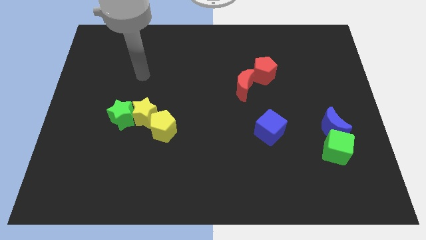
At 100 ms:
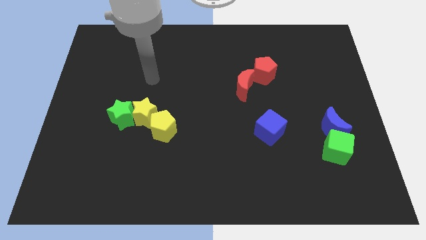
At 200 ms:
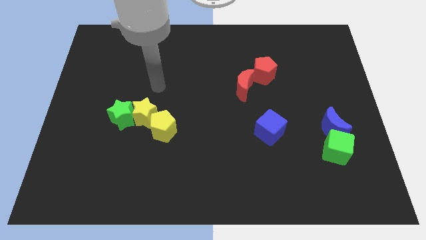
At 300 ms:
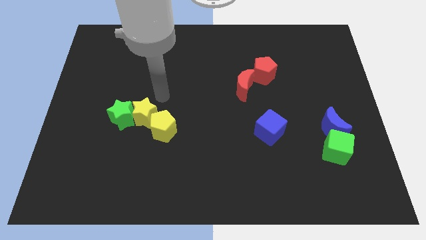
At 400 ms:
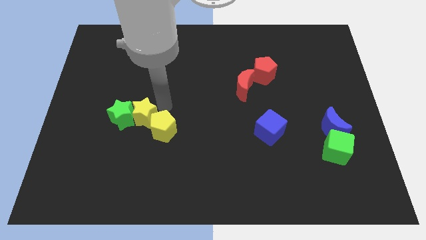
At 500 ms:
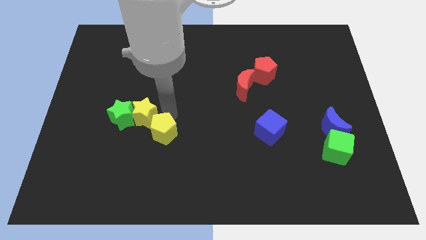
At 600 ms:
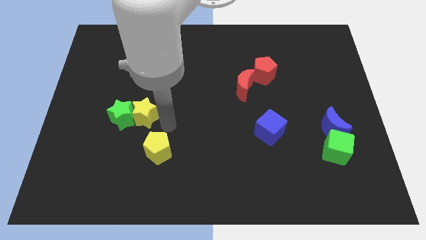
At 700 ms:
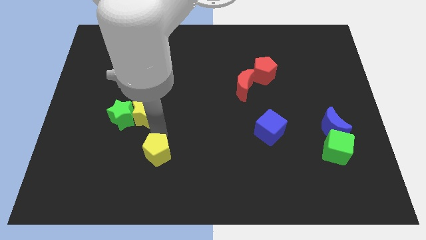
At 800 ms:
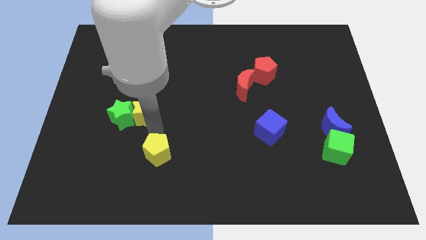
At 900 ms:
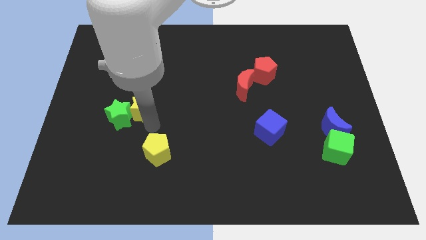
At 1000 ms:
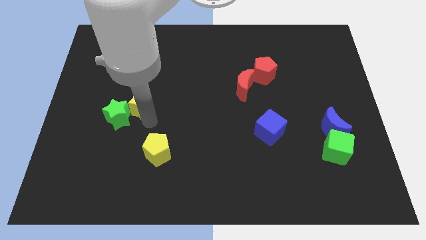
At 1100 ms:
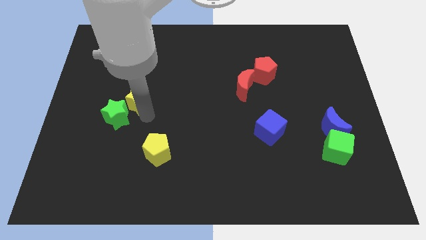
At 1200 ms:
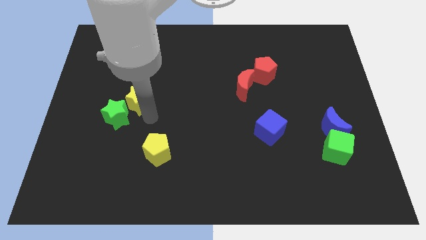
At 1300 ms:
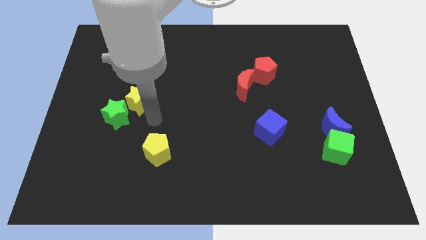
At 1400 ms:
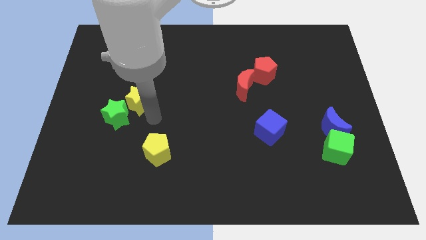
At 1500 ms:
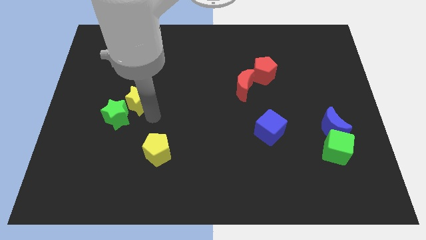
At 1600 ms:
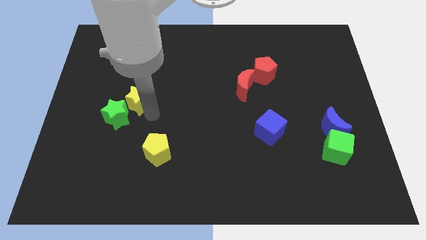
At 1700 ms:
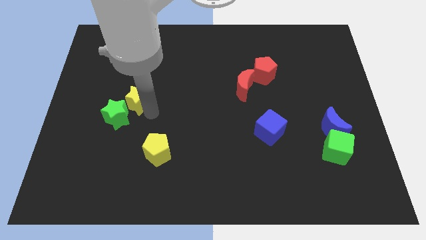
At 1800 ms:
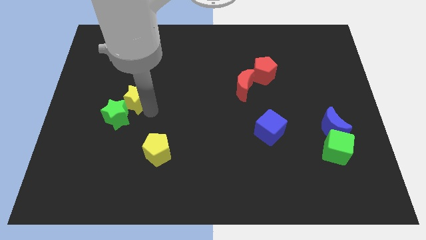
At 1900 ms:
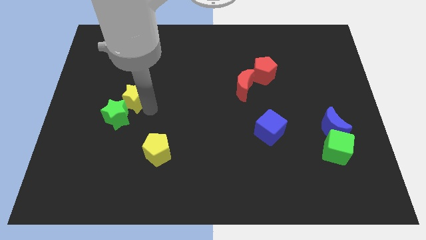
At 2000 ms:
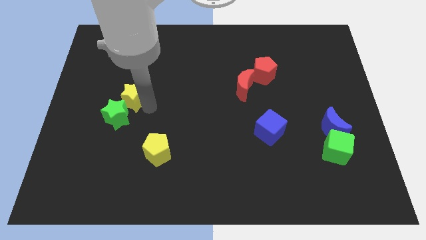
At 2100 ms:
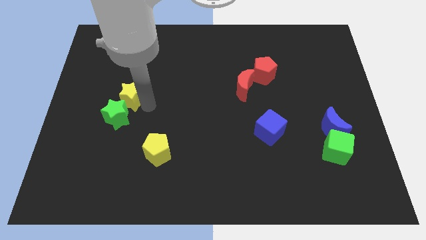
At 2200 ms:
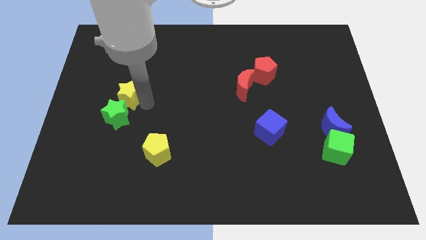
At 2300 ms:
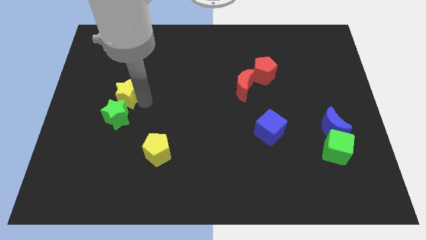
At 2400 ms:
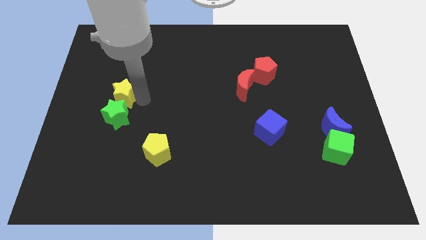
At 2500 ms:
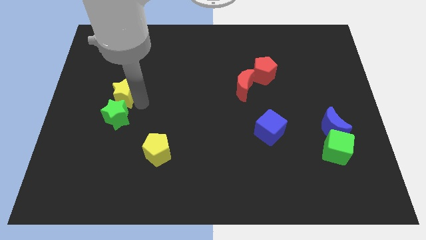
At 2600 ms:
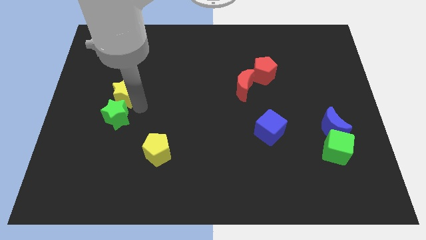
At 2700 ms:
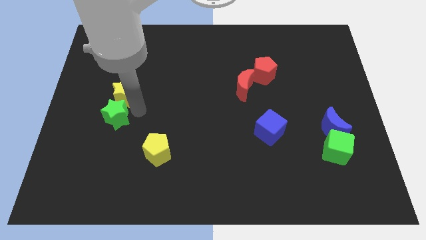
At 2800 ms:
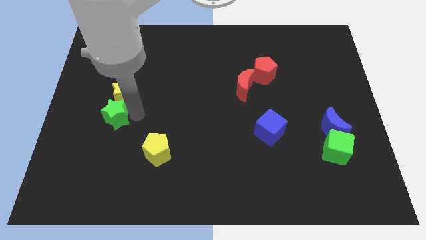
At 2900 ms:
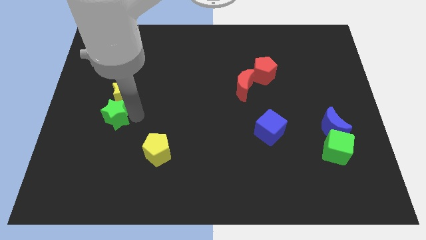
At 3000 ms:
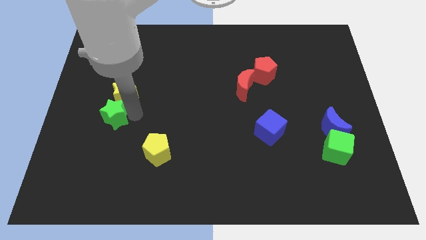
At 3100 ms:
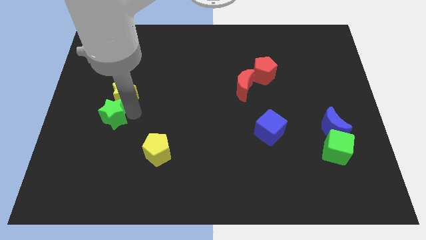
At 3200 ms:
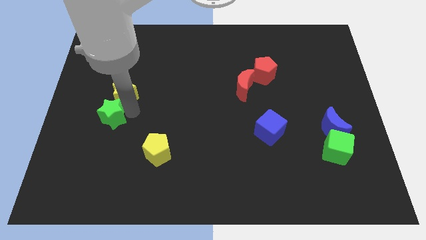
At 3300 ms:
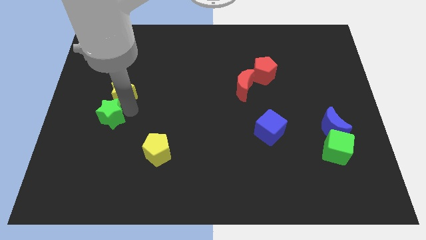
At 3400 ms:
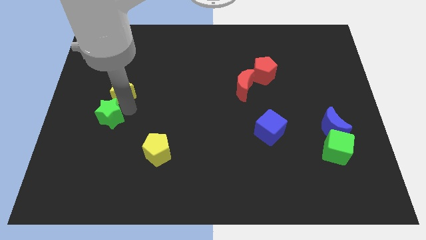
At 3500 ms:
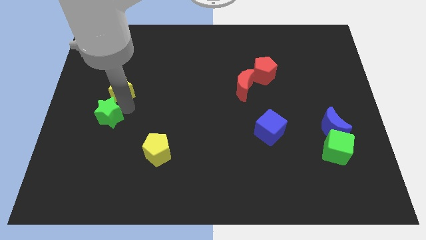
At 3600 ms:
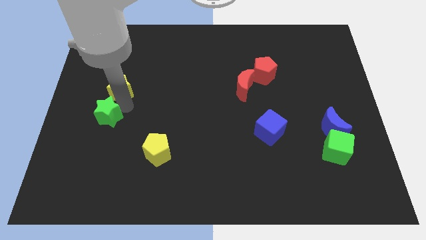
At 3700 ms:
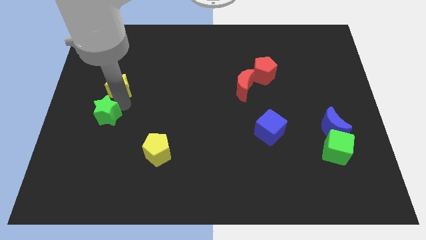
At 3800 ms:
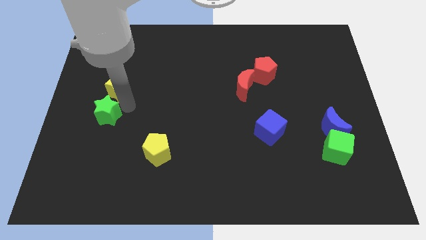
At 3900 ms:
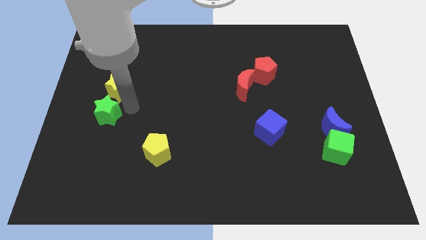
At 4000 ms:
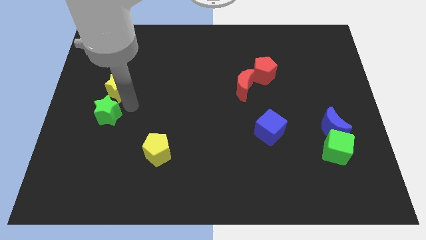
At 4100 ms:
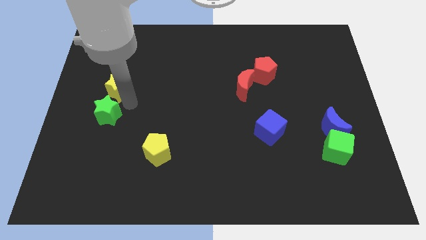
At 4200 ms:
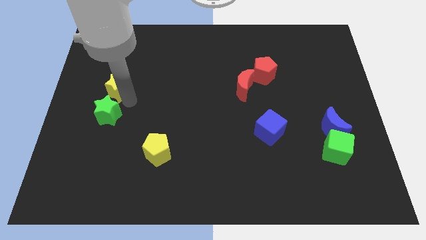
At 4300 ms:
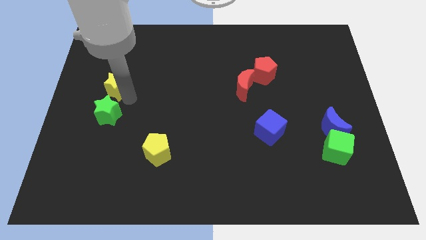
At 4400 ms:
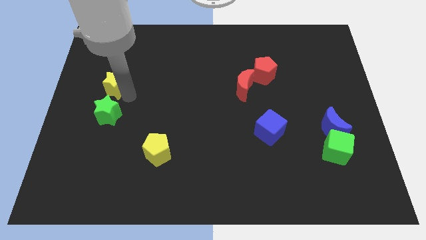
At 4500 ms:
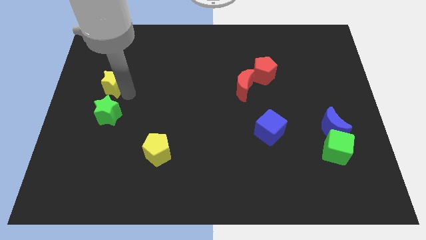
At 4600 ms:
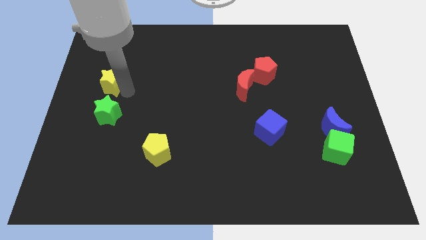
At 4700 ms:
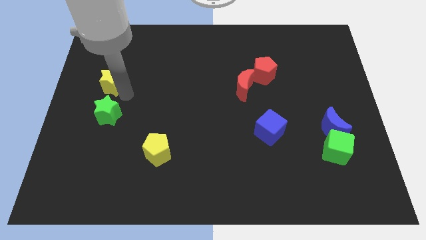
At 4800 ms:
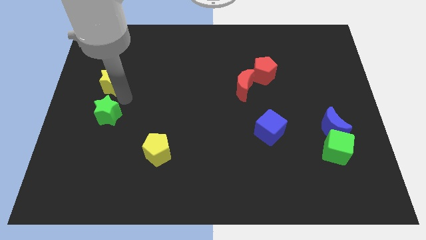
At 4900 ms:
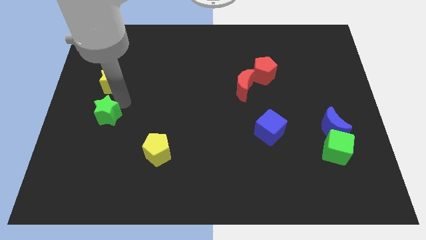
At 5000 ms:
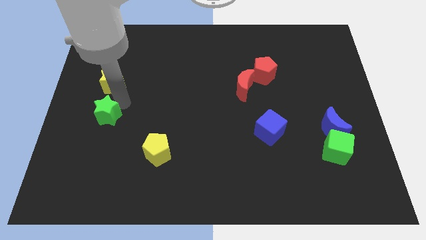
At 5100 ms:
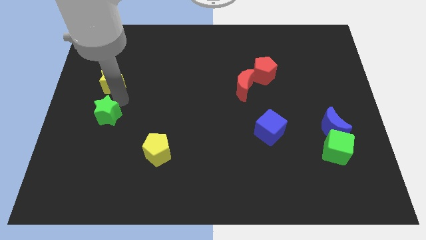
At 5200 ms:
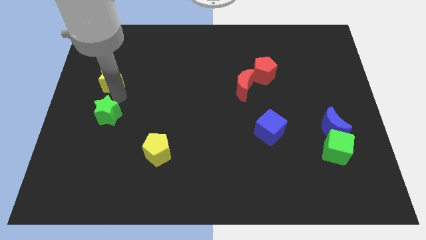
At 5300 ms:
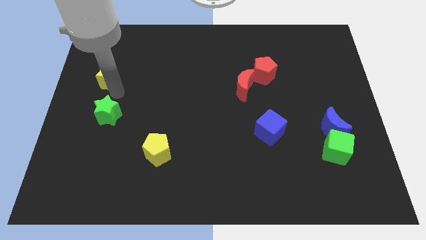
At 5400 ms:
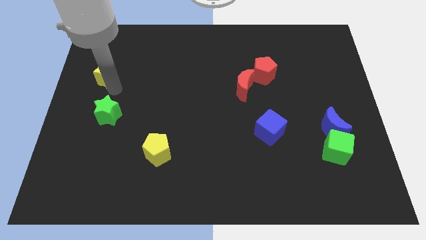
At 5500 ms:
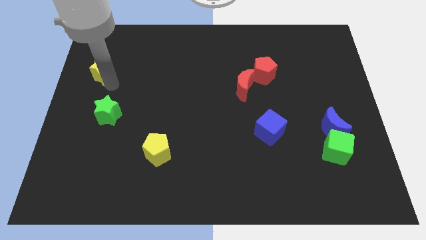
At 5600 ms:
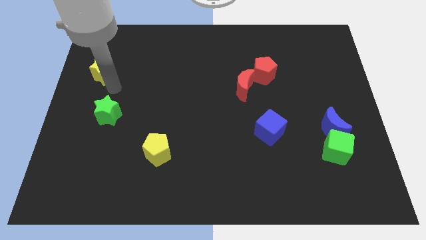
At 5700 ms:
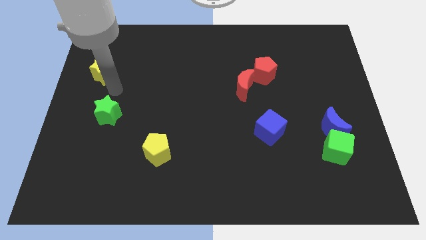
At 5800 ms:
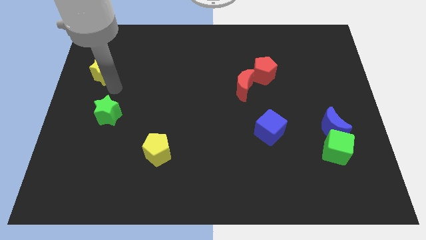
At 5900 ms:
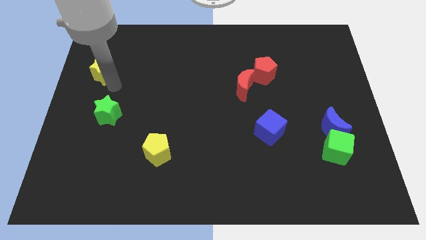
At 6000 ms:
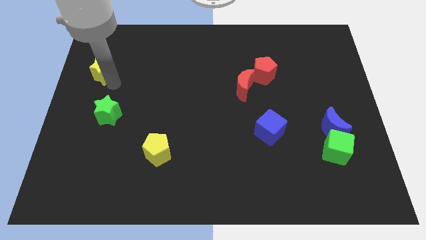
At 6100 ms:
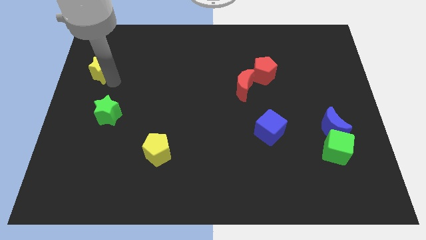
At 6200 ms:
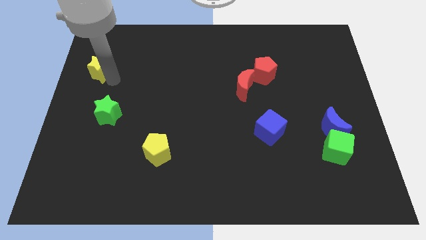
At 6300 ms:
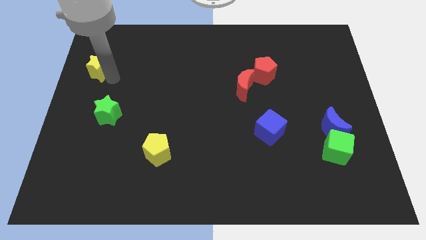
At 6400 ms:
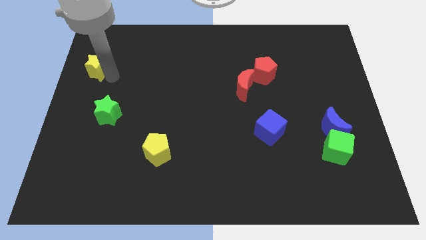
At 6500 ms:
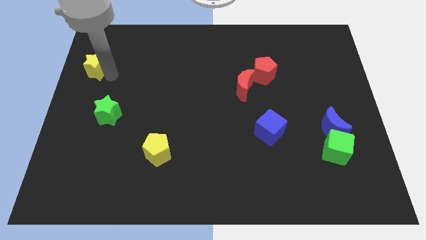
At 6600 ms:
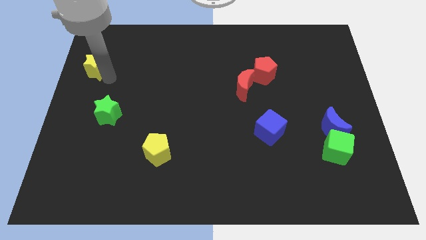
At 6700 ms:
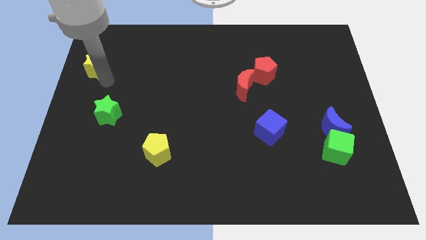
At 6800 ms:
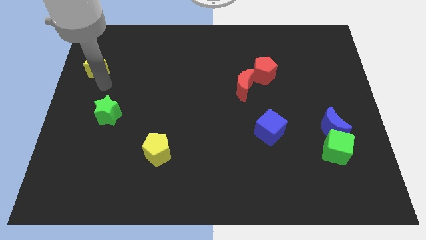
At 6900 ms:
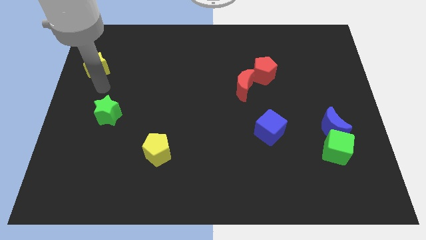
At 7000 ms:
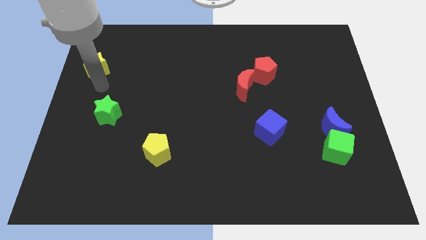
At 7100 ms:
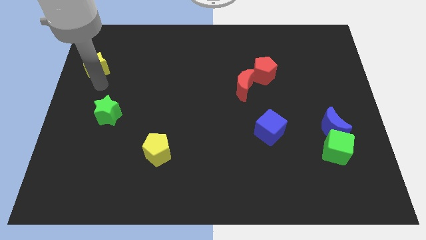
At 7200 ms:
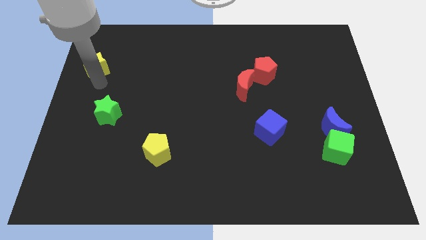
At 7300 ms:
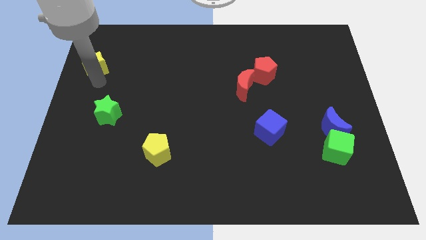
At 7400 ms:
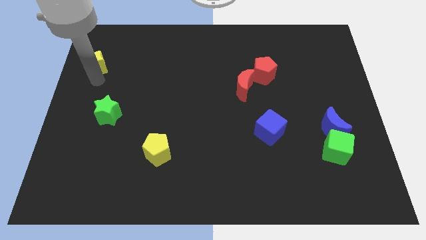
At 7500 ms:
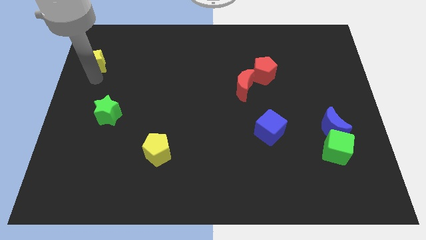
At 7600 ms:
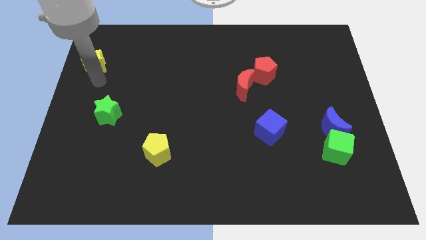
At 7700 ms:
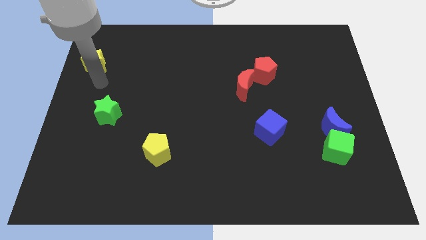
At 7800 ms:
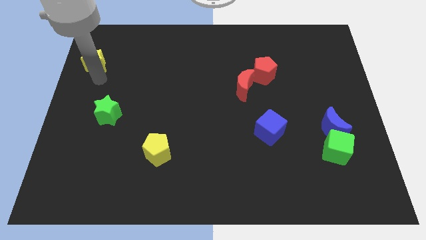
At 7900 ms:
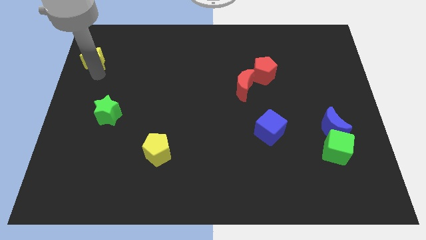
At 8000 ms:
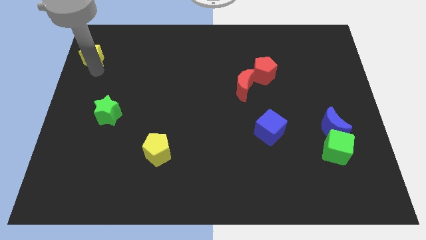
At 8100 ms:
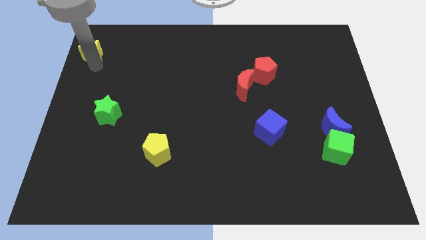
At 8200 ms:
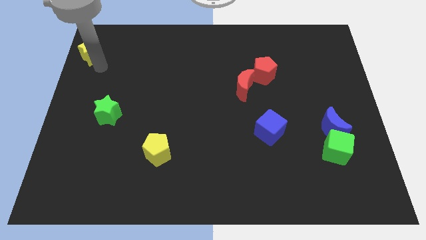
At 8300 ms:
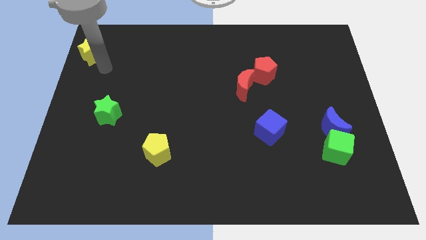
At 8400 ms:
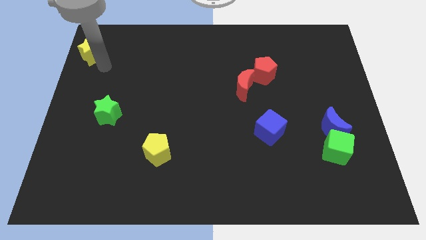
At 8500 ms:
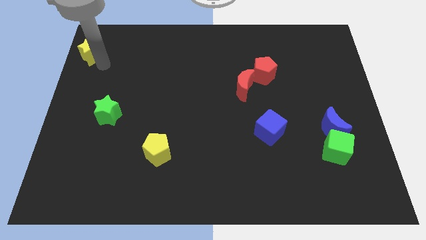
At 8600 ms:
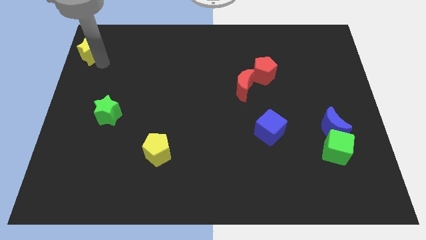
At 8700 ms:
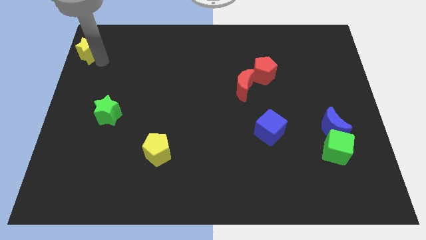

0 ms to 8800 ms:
slide the yellow star to the top left of the board
